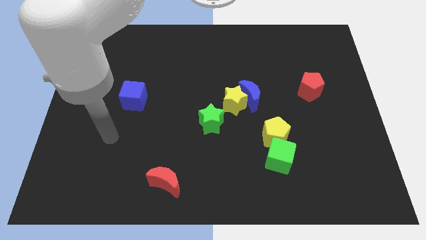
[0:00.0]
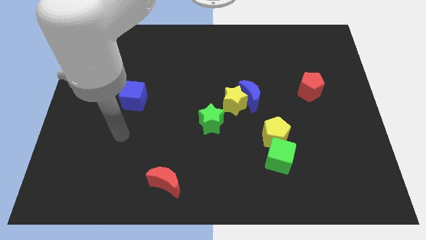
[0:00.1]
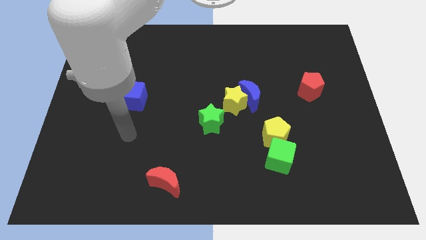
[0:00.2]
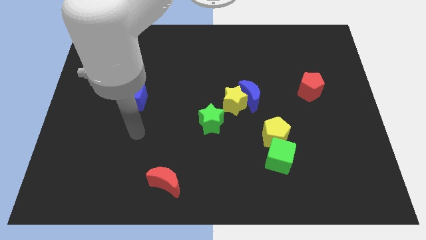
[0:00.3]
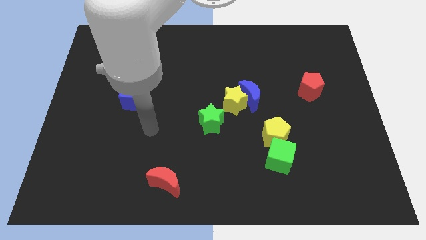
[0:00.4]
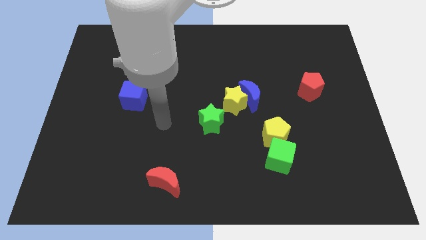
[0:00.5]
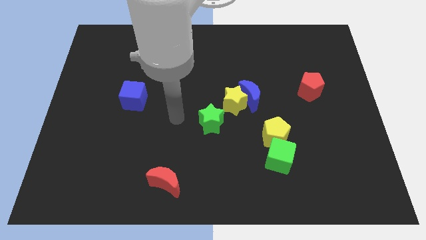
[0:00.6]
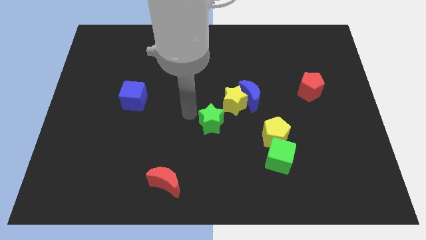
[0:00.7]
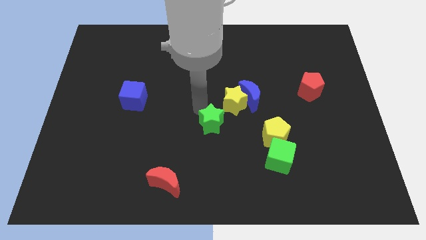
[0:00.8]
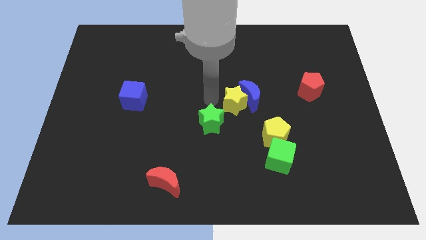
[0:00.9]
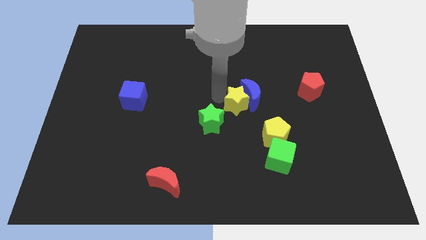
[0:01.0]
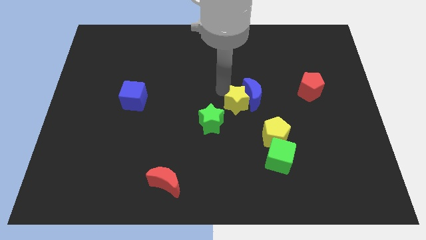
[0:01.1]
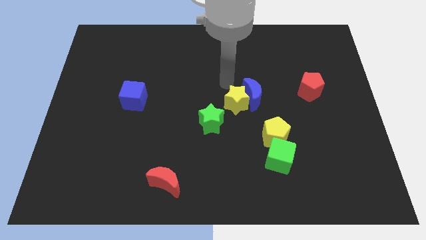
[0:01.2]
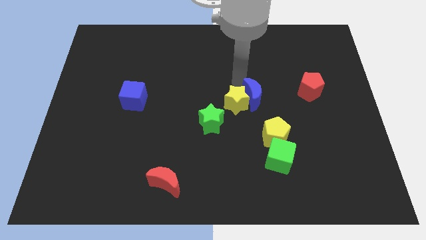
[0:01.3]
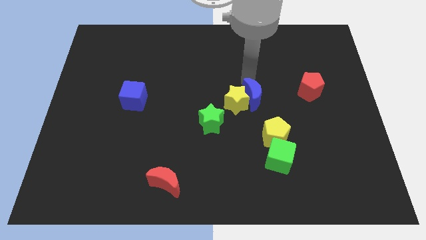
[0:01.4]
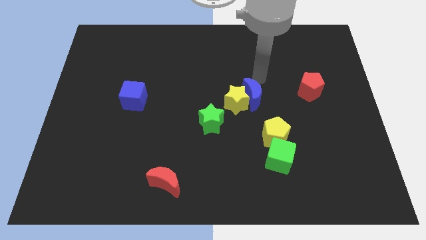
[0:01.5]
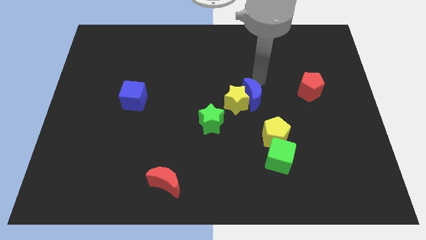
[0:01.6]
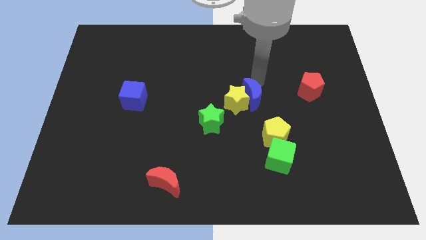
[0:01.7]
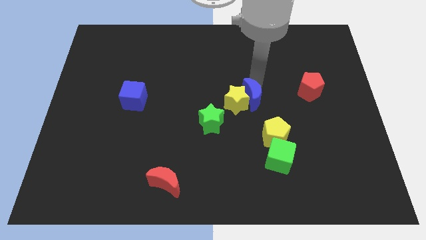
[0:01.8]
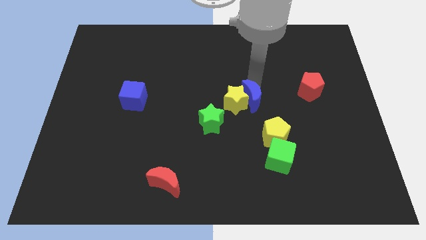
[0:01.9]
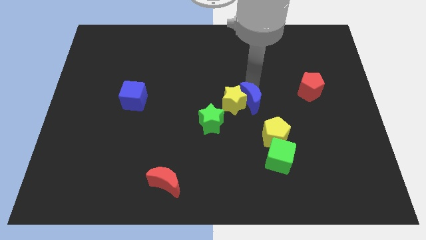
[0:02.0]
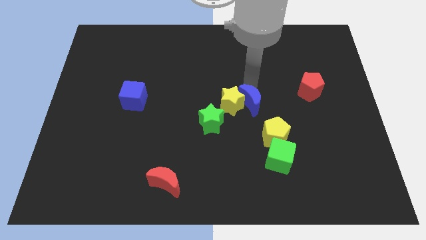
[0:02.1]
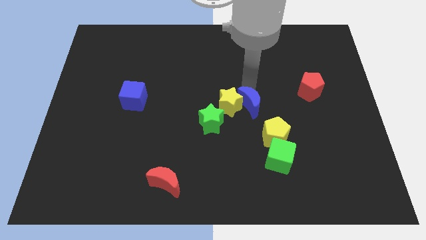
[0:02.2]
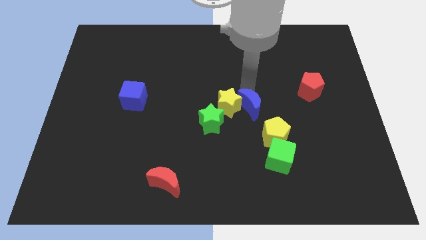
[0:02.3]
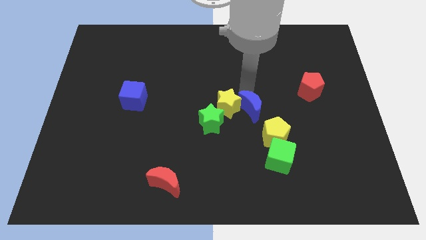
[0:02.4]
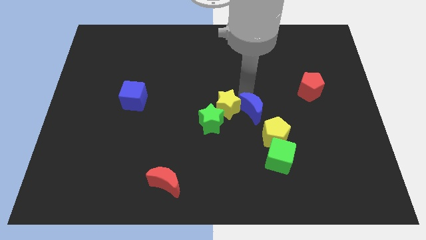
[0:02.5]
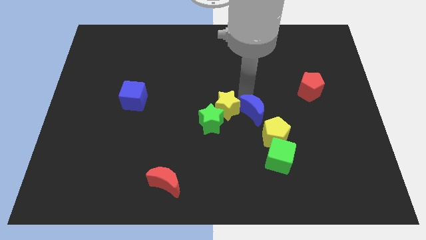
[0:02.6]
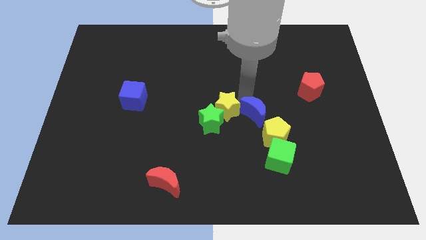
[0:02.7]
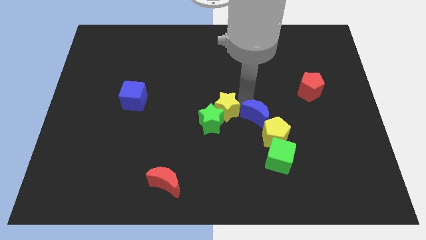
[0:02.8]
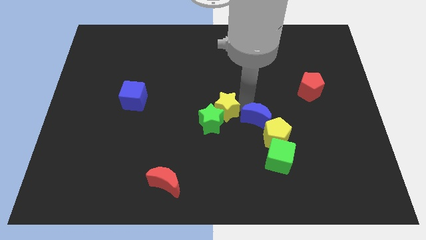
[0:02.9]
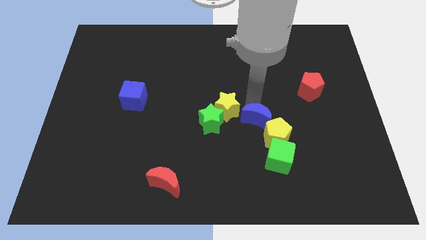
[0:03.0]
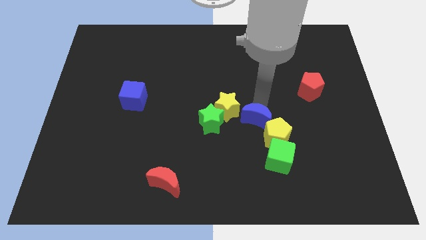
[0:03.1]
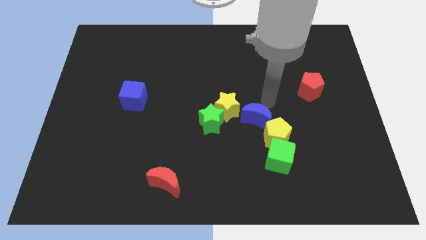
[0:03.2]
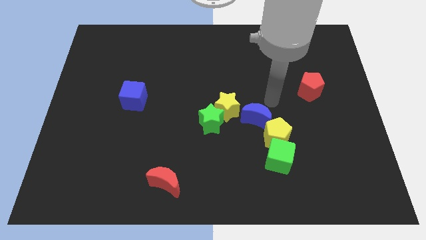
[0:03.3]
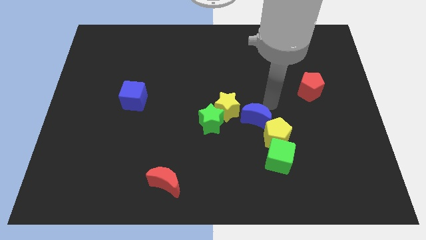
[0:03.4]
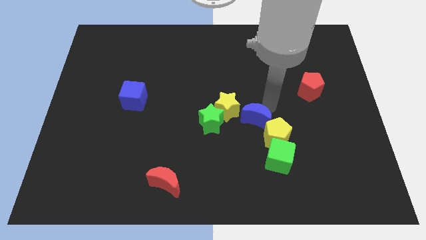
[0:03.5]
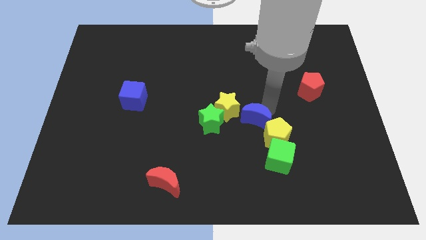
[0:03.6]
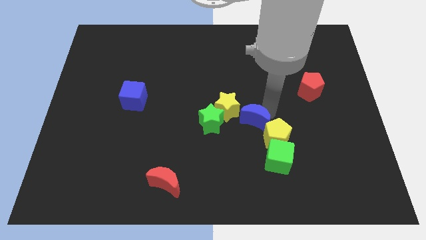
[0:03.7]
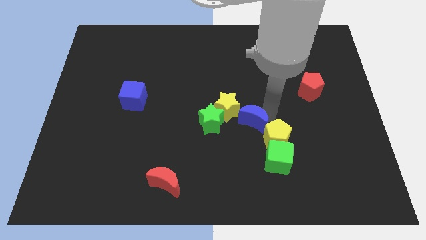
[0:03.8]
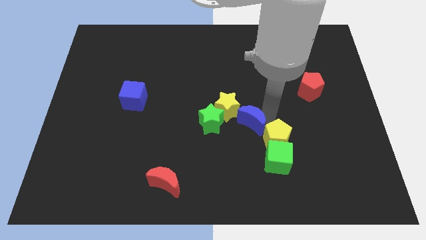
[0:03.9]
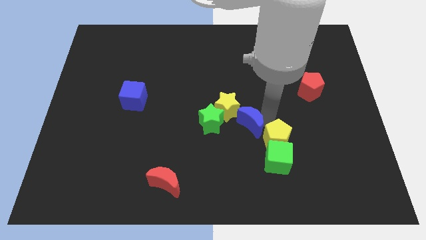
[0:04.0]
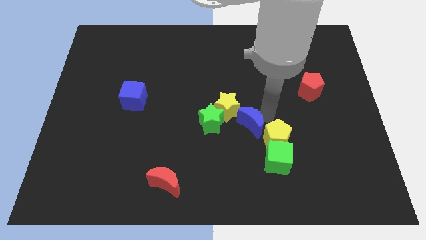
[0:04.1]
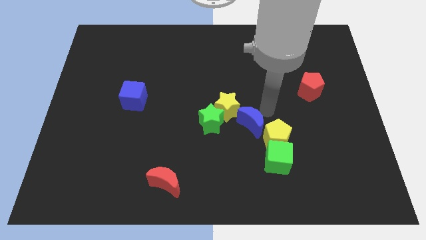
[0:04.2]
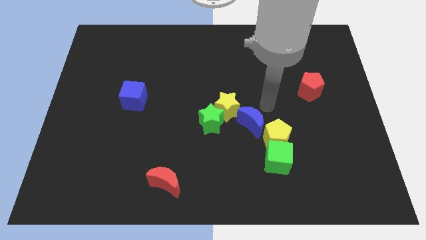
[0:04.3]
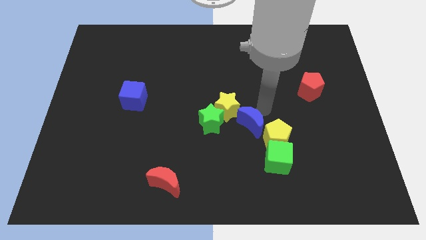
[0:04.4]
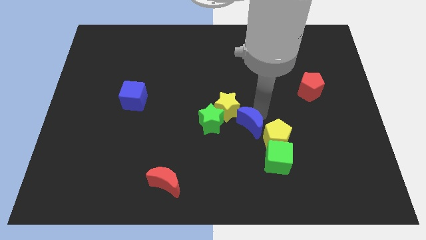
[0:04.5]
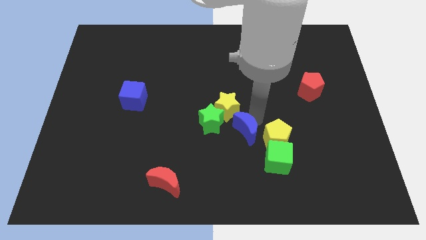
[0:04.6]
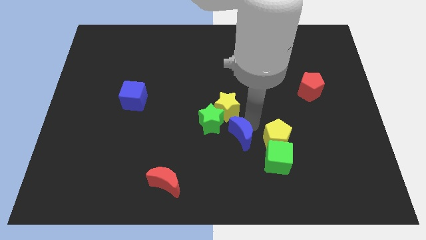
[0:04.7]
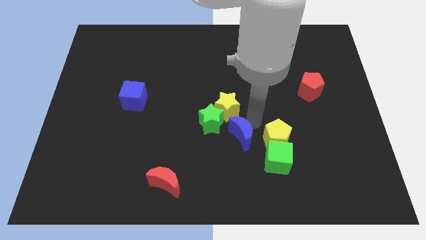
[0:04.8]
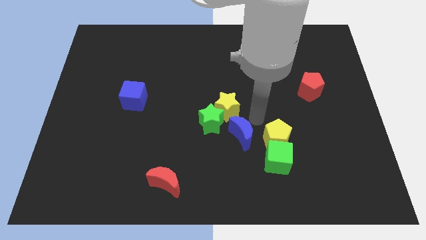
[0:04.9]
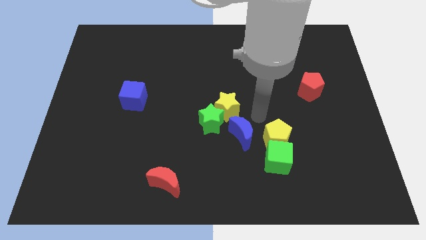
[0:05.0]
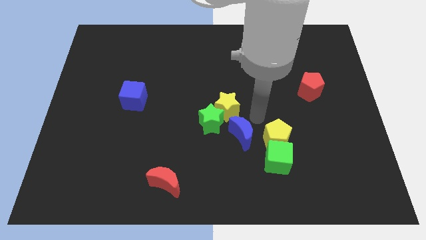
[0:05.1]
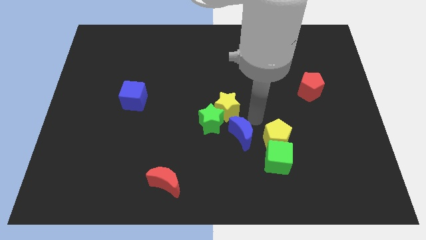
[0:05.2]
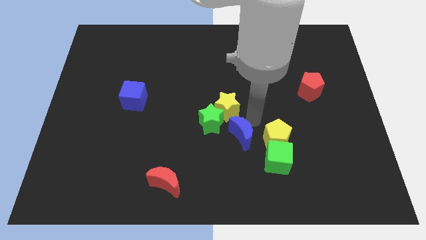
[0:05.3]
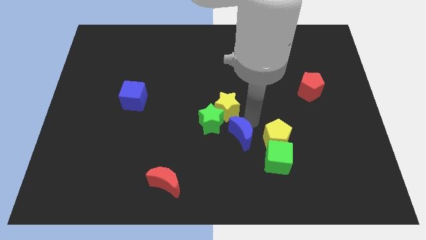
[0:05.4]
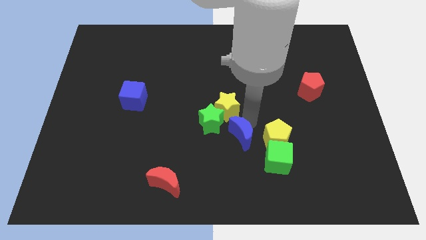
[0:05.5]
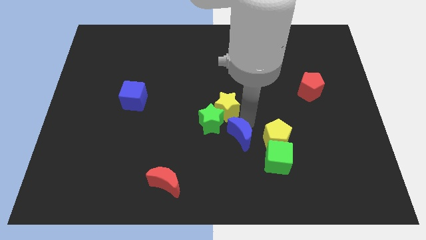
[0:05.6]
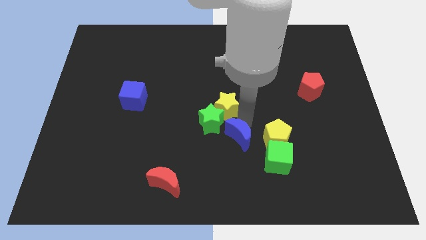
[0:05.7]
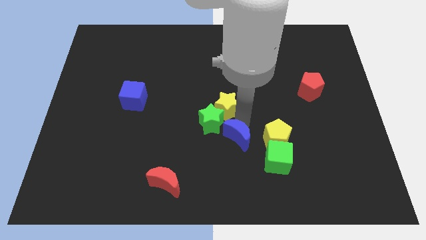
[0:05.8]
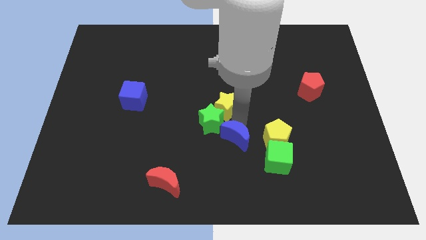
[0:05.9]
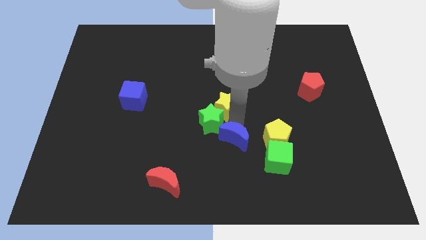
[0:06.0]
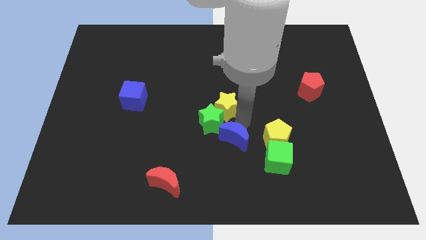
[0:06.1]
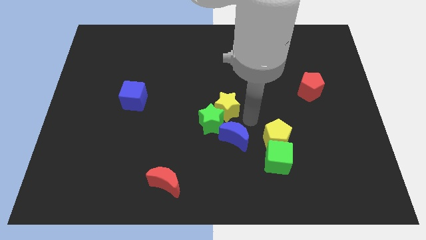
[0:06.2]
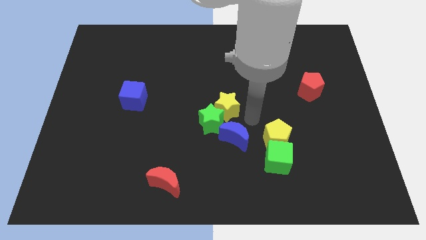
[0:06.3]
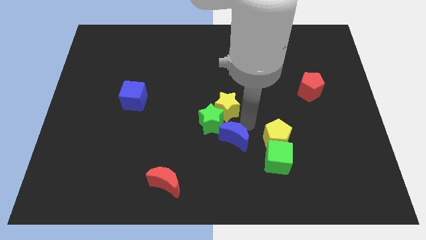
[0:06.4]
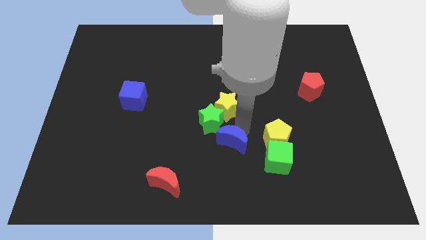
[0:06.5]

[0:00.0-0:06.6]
slide the blue moon to the bottom side of the green star

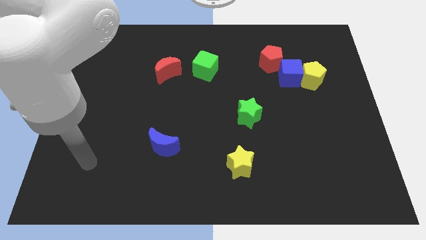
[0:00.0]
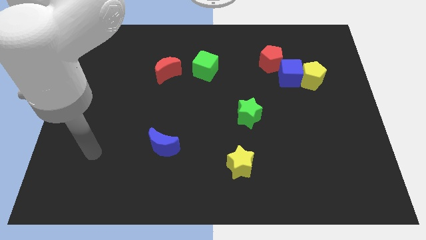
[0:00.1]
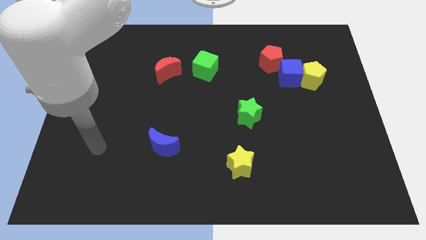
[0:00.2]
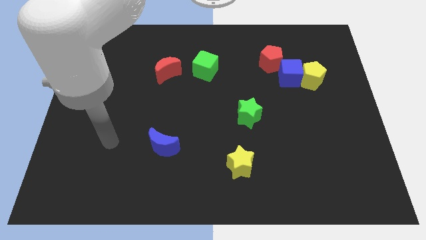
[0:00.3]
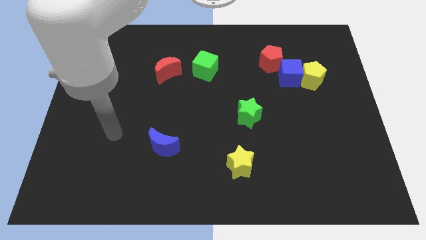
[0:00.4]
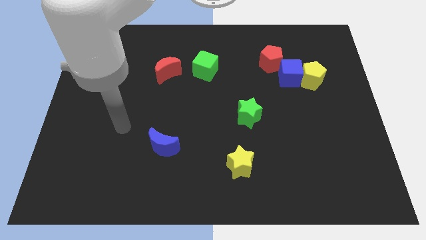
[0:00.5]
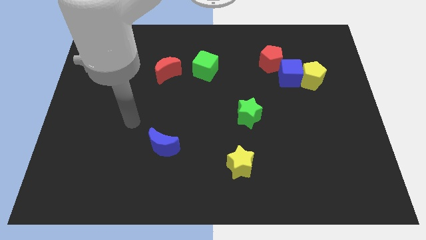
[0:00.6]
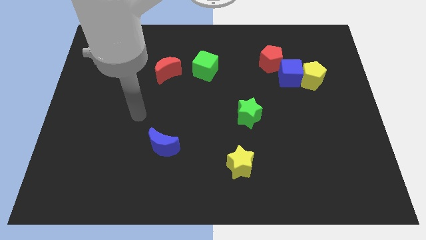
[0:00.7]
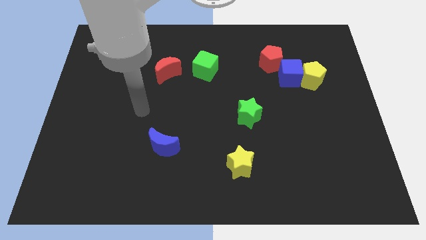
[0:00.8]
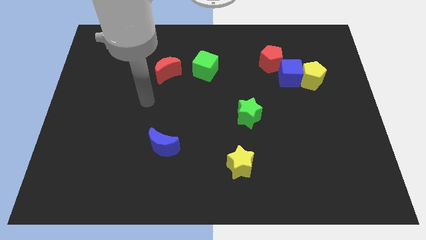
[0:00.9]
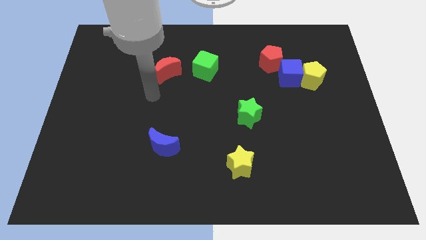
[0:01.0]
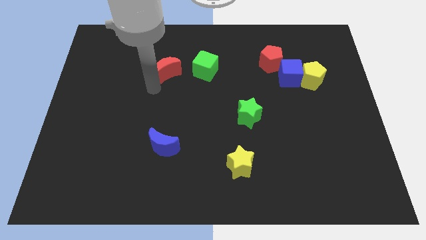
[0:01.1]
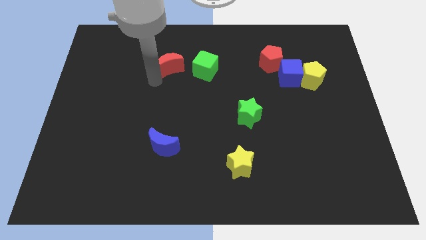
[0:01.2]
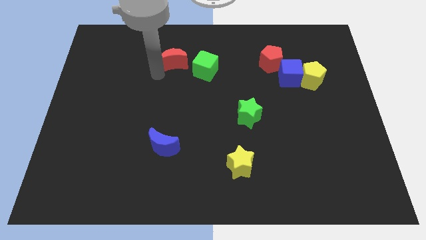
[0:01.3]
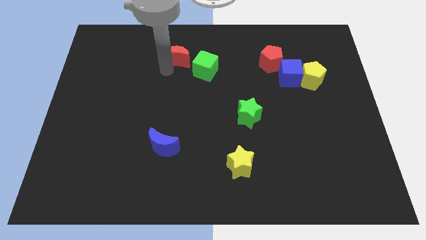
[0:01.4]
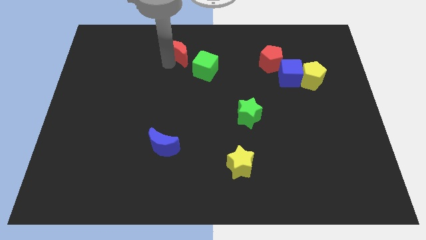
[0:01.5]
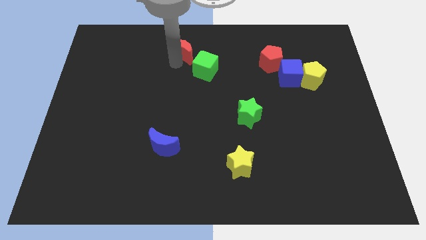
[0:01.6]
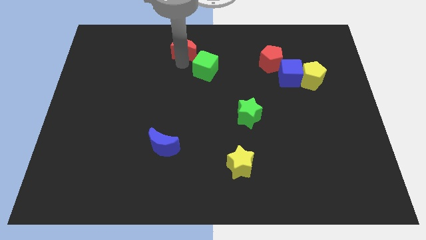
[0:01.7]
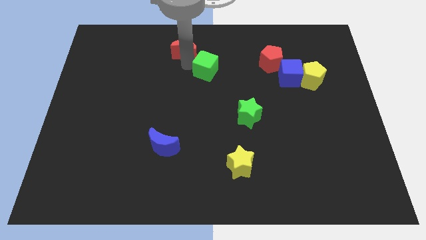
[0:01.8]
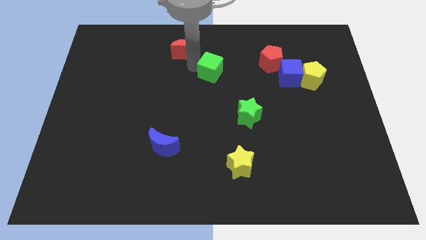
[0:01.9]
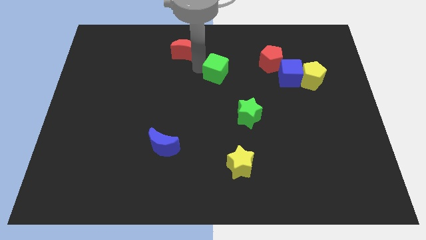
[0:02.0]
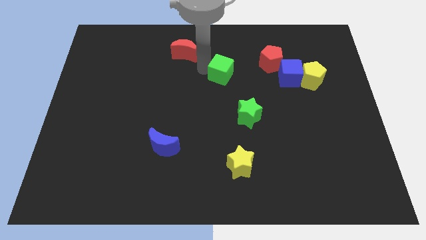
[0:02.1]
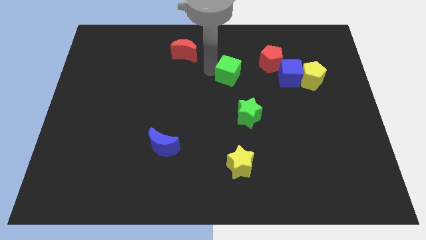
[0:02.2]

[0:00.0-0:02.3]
move the green cube to the top side of the green star
